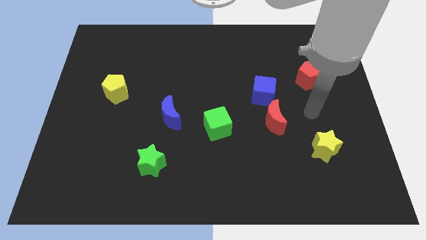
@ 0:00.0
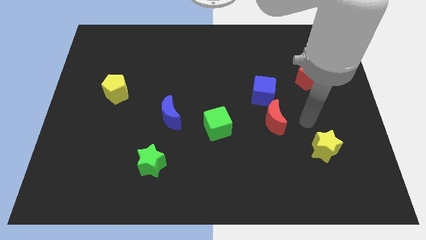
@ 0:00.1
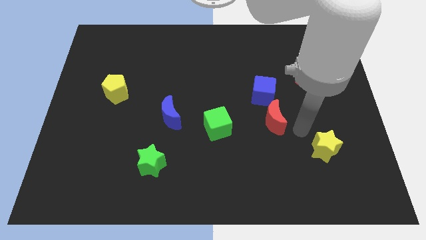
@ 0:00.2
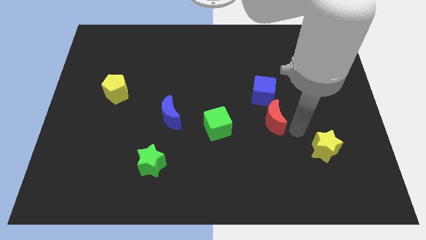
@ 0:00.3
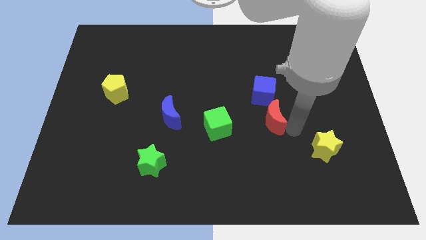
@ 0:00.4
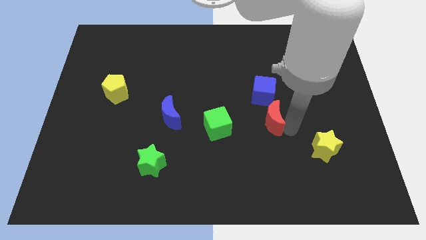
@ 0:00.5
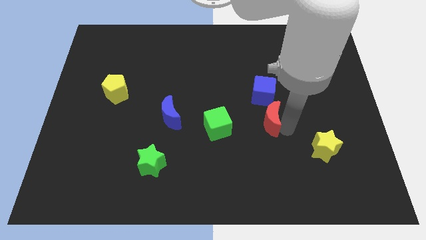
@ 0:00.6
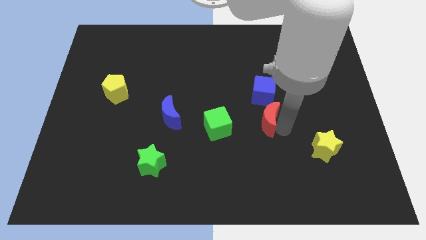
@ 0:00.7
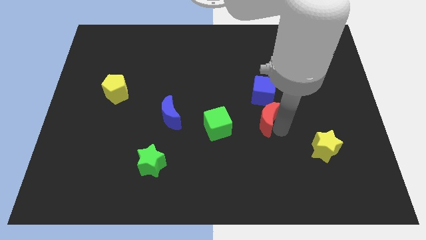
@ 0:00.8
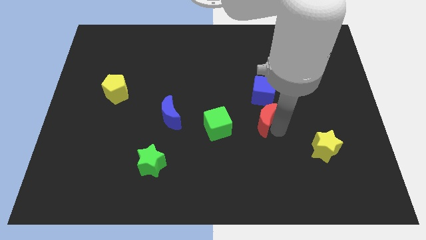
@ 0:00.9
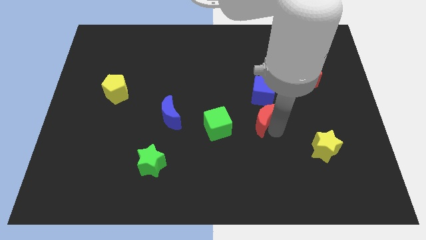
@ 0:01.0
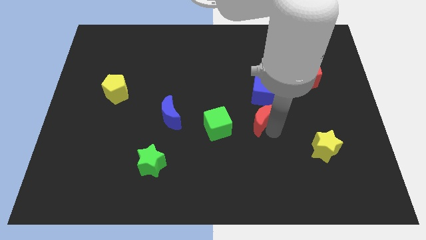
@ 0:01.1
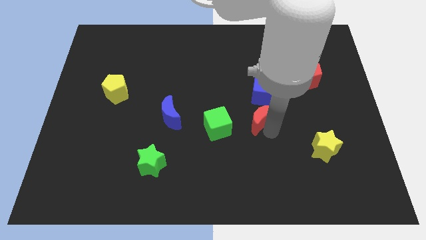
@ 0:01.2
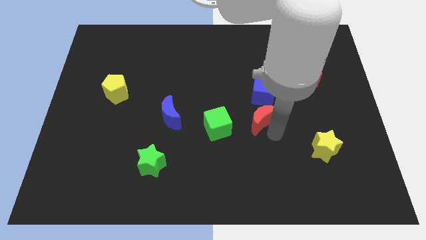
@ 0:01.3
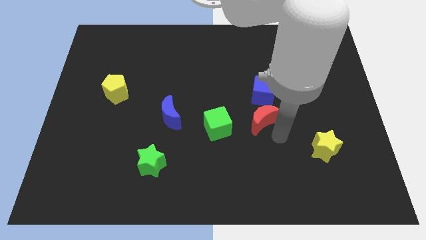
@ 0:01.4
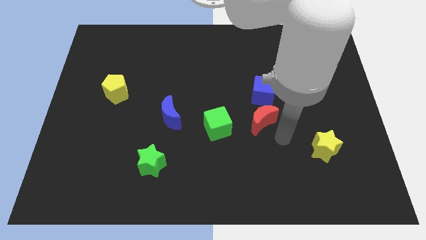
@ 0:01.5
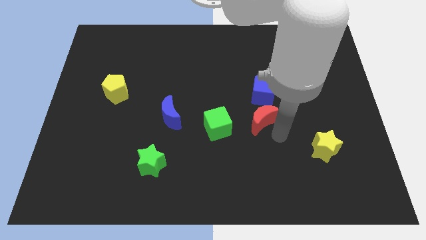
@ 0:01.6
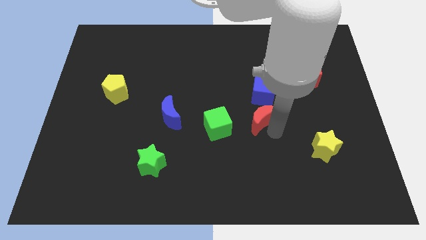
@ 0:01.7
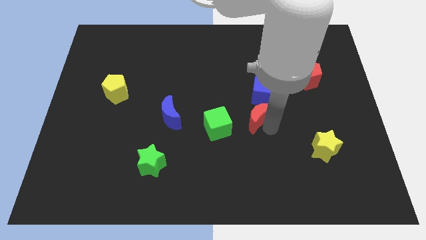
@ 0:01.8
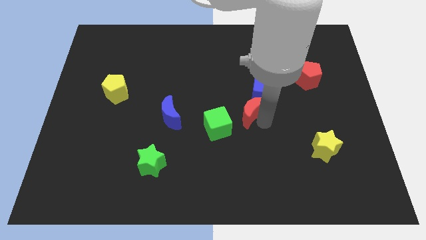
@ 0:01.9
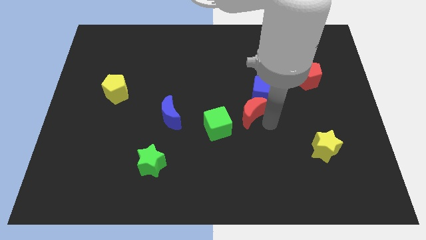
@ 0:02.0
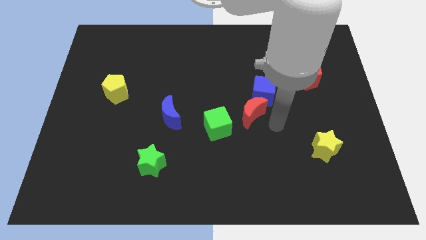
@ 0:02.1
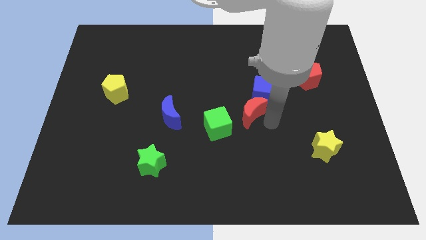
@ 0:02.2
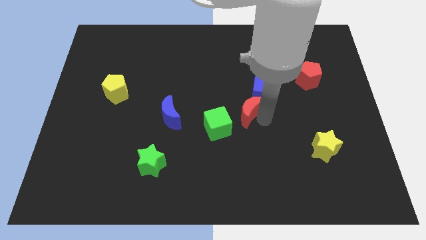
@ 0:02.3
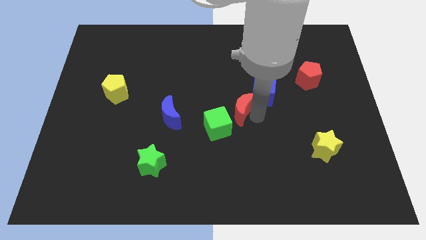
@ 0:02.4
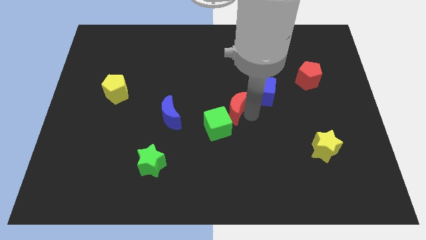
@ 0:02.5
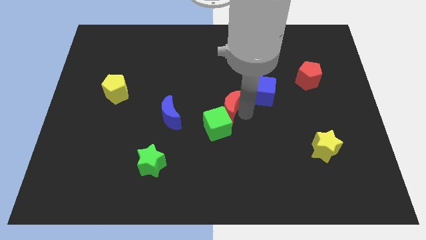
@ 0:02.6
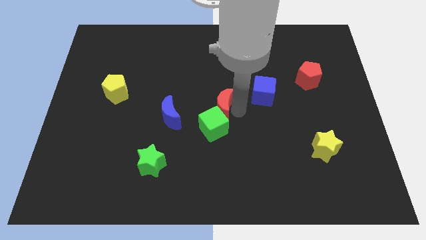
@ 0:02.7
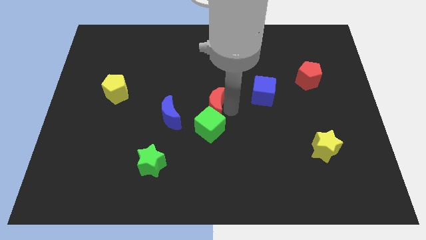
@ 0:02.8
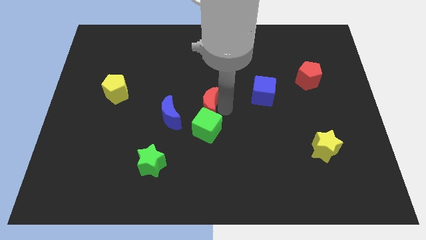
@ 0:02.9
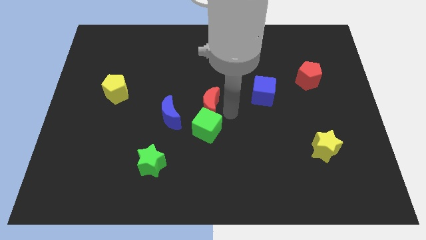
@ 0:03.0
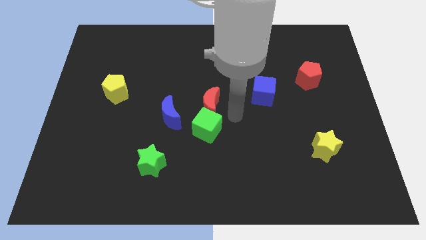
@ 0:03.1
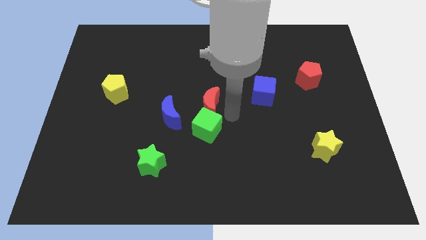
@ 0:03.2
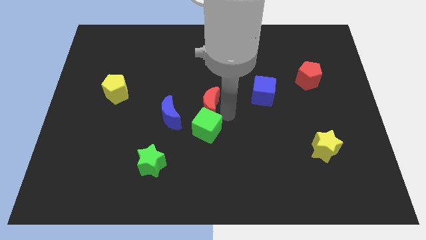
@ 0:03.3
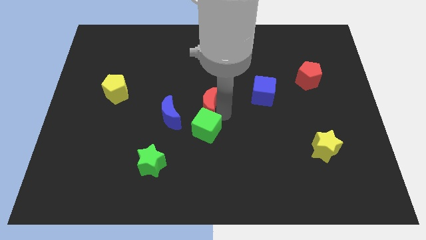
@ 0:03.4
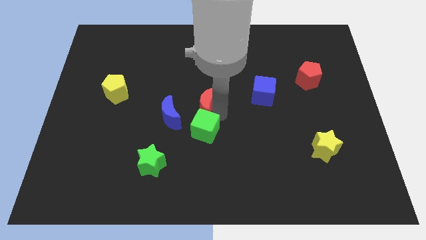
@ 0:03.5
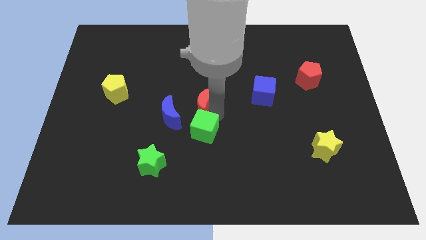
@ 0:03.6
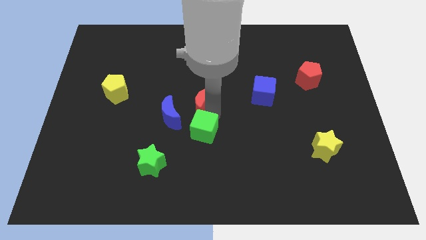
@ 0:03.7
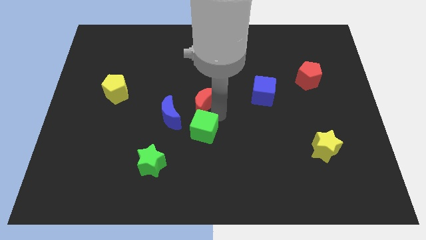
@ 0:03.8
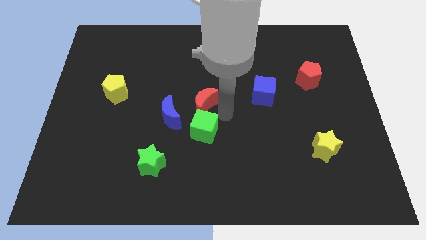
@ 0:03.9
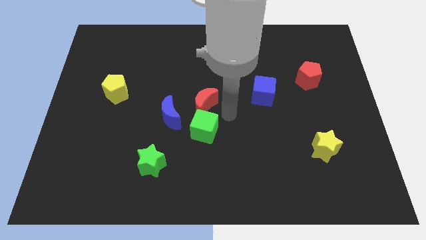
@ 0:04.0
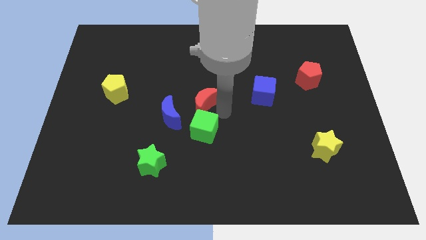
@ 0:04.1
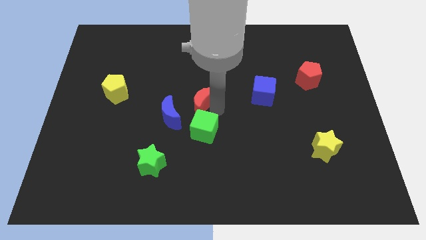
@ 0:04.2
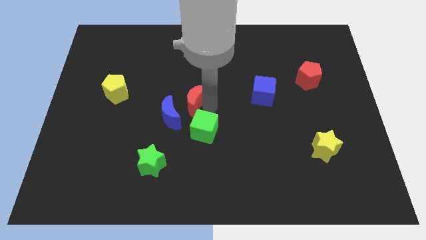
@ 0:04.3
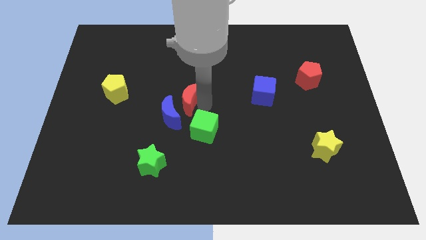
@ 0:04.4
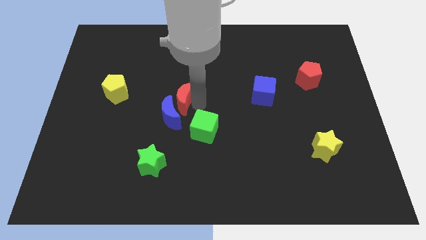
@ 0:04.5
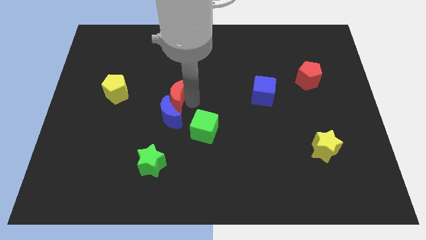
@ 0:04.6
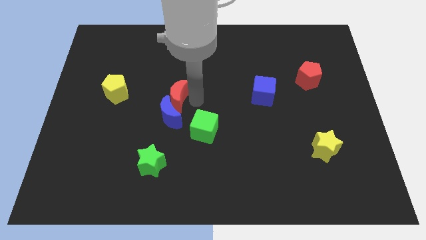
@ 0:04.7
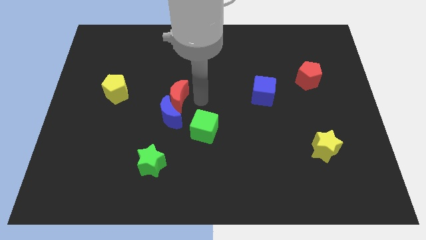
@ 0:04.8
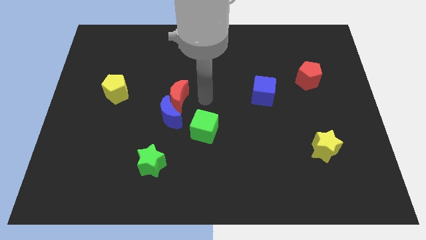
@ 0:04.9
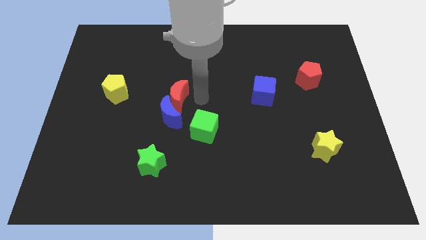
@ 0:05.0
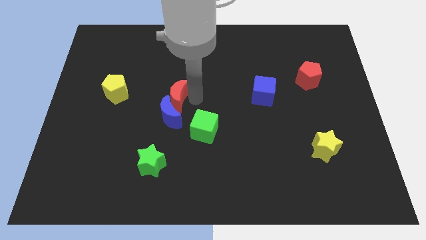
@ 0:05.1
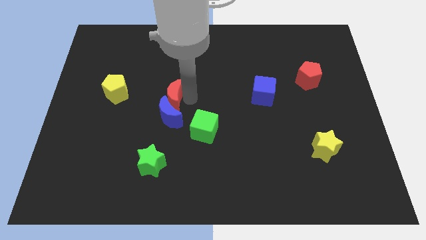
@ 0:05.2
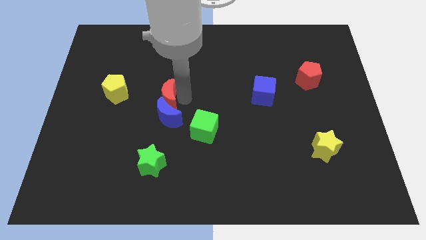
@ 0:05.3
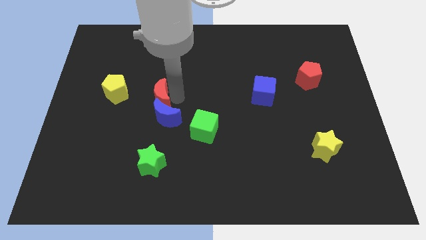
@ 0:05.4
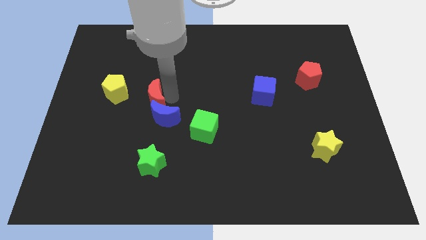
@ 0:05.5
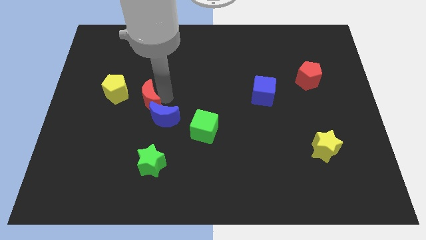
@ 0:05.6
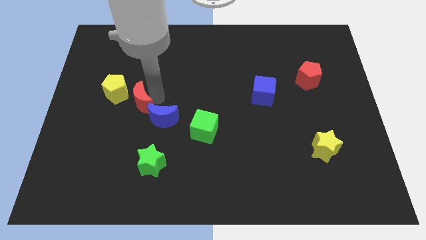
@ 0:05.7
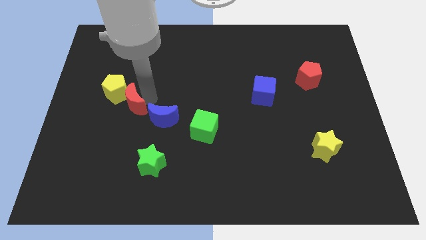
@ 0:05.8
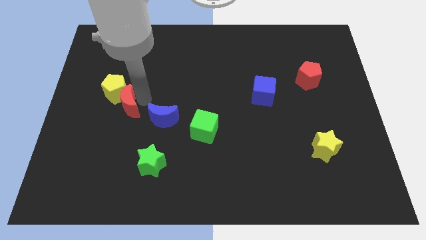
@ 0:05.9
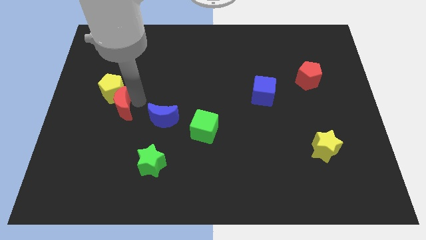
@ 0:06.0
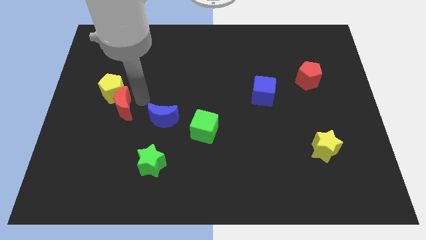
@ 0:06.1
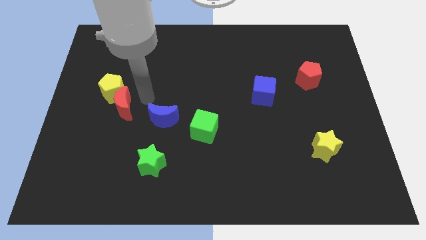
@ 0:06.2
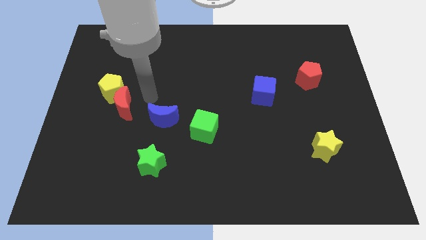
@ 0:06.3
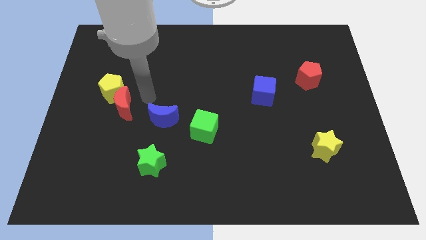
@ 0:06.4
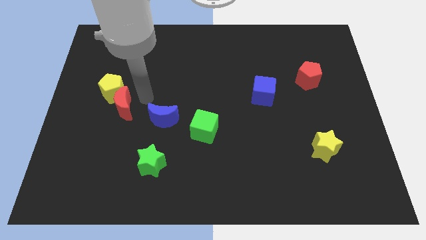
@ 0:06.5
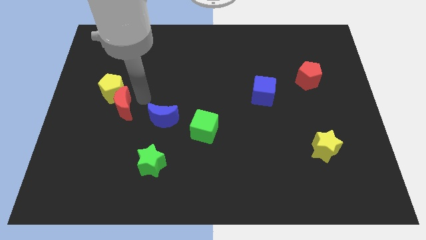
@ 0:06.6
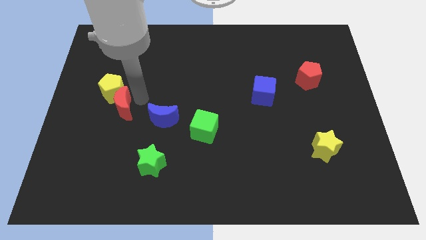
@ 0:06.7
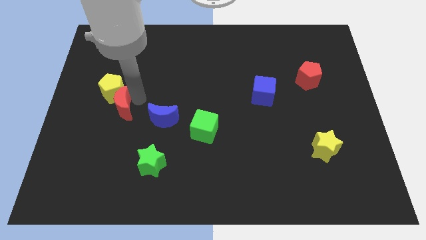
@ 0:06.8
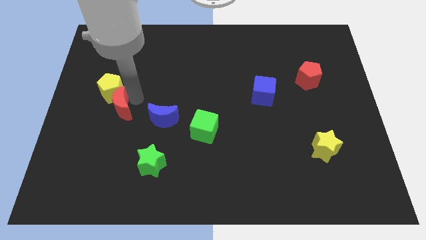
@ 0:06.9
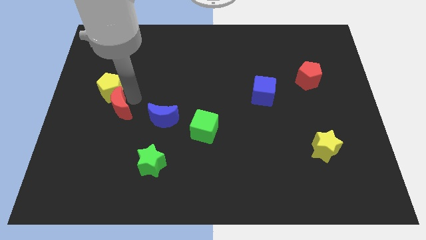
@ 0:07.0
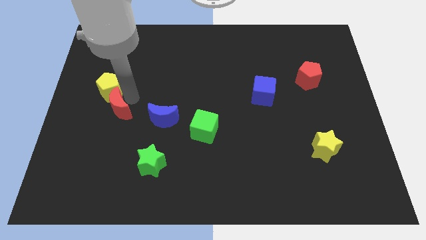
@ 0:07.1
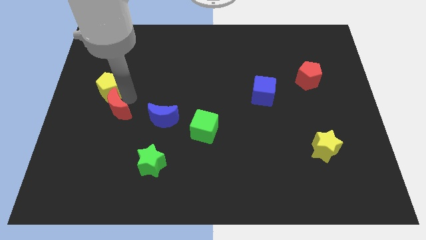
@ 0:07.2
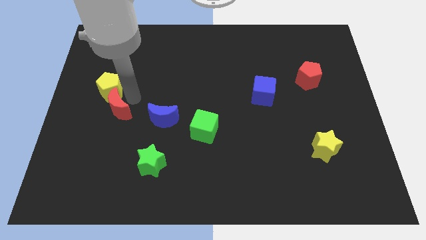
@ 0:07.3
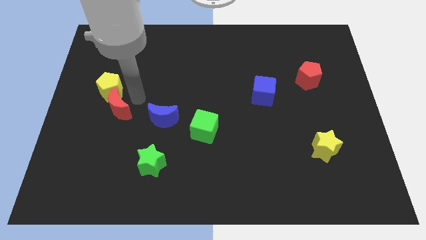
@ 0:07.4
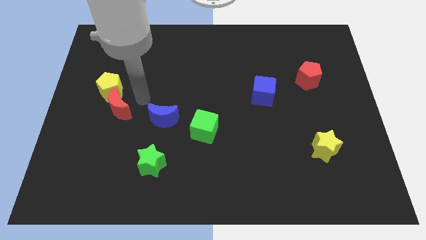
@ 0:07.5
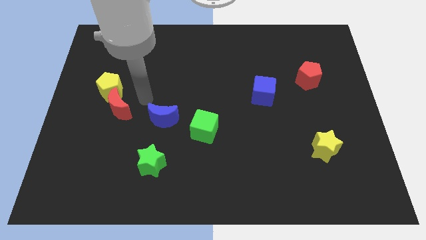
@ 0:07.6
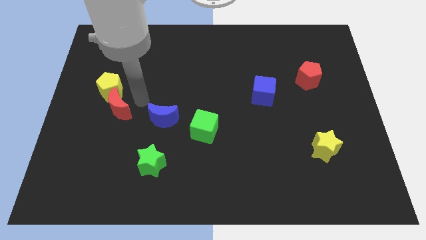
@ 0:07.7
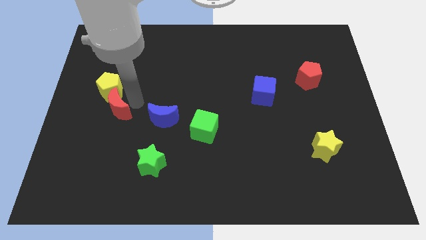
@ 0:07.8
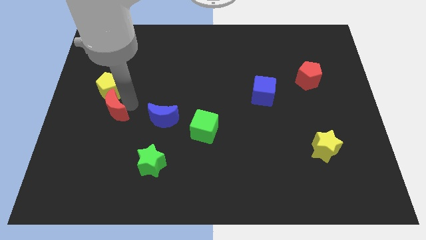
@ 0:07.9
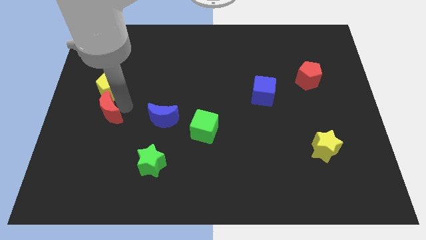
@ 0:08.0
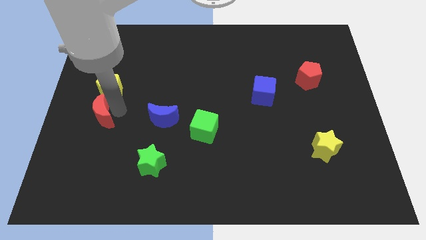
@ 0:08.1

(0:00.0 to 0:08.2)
slide the red moon to the left side of the board
